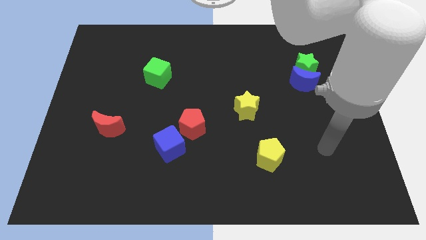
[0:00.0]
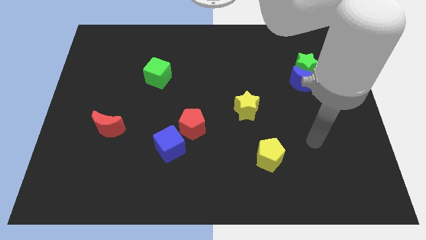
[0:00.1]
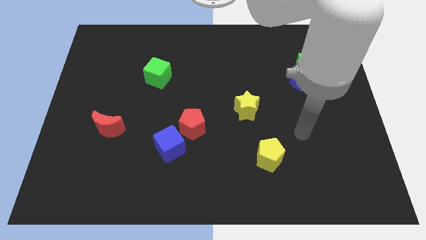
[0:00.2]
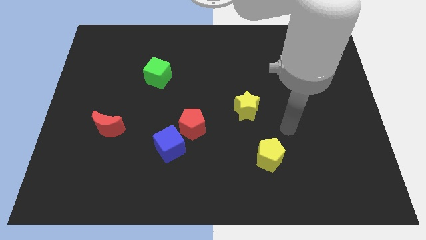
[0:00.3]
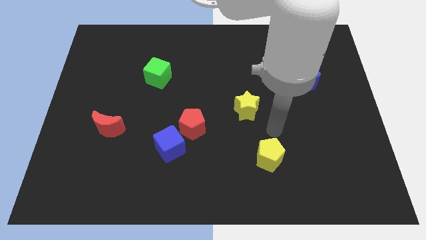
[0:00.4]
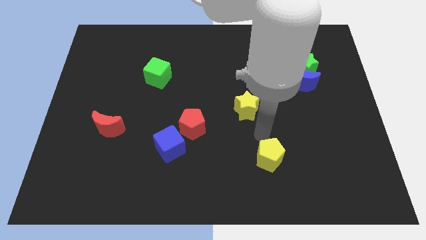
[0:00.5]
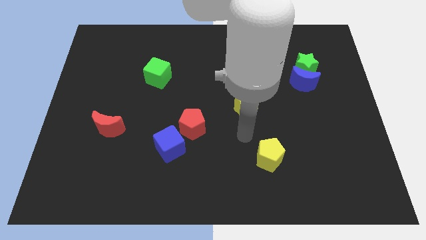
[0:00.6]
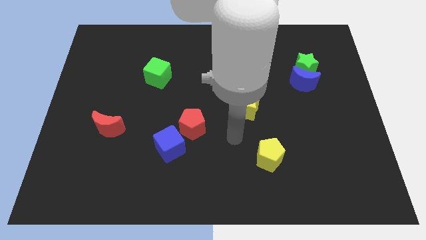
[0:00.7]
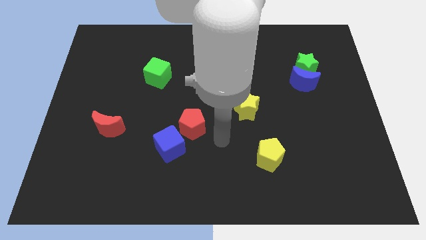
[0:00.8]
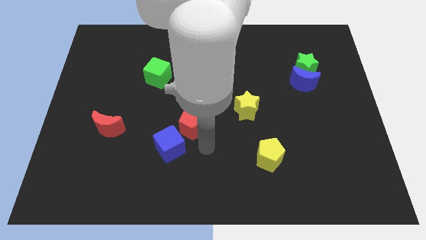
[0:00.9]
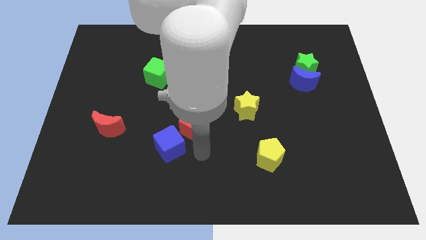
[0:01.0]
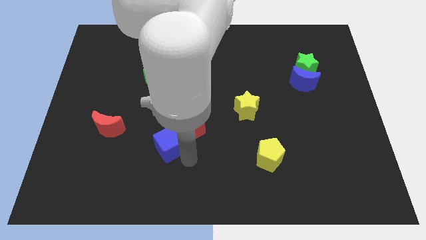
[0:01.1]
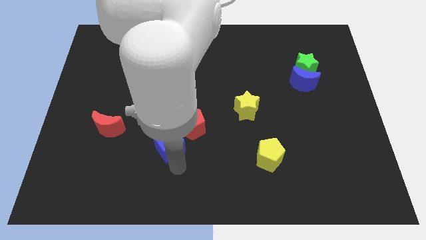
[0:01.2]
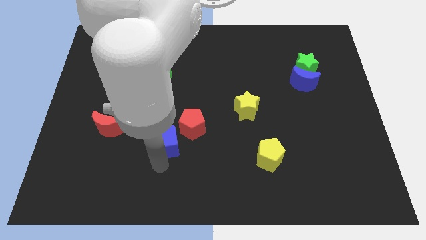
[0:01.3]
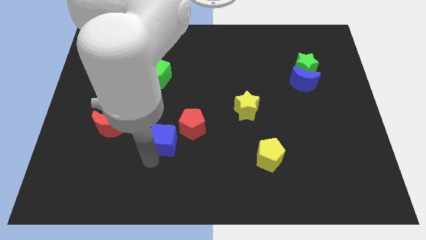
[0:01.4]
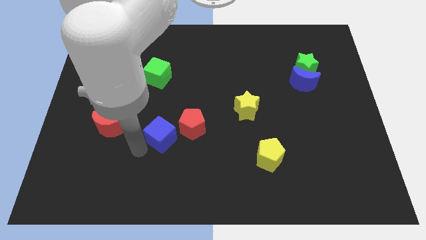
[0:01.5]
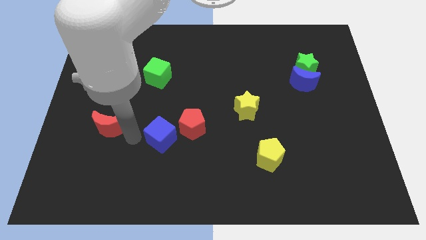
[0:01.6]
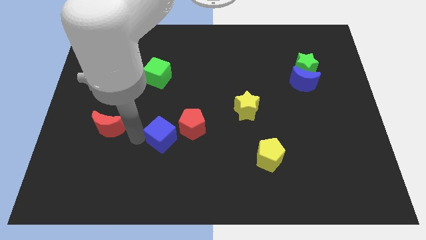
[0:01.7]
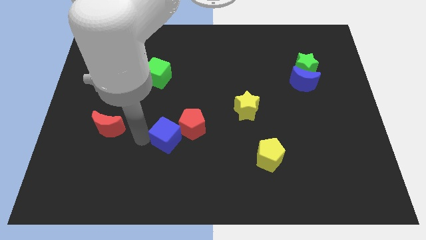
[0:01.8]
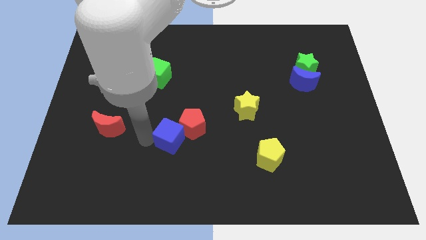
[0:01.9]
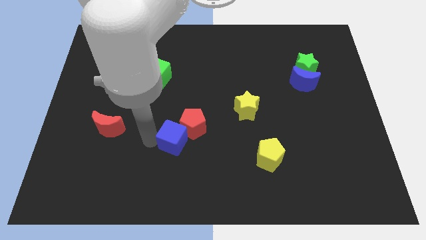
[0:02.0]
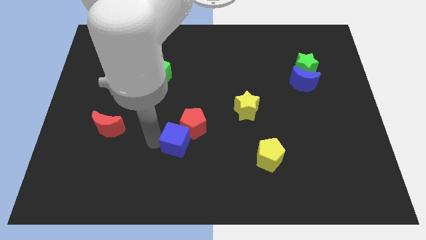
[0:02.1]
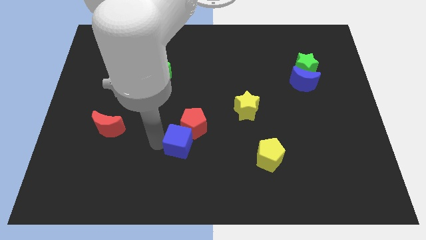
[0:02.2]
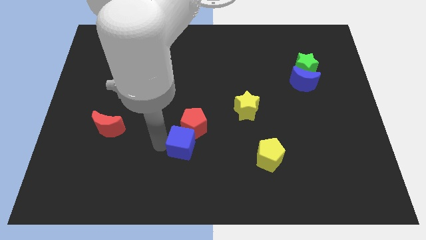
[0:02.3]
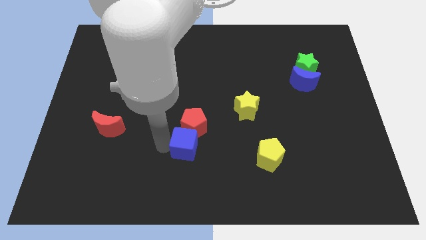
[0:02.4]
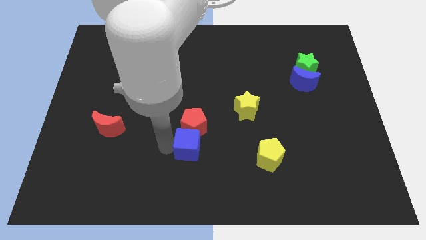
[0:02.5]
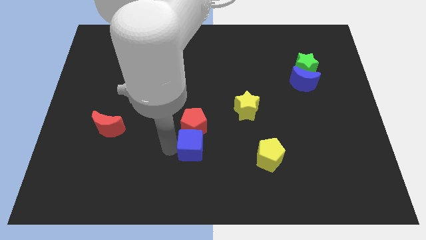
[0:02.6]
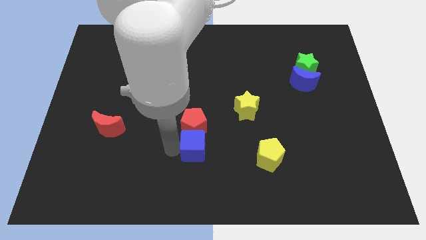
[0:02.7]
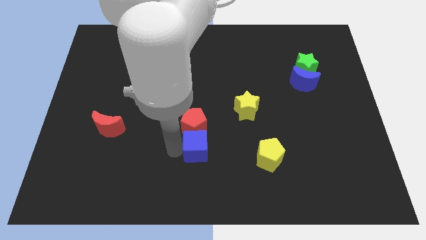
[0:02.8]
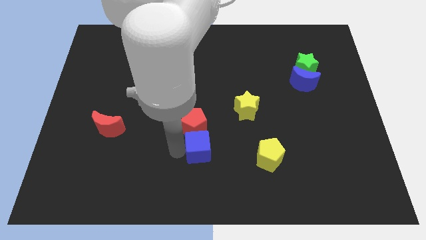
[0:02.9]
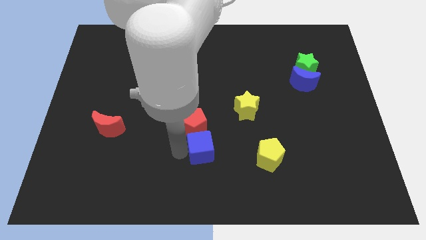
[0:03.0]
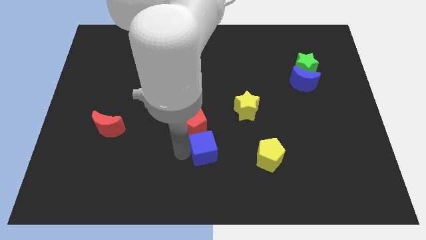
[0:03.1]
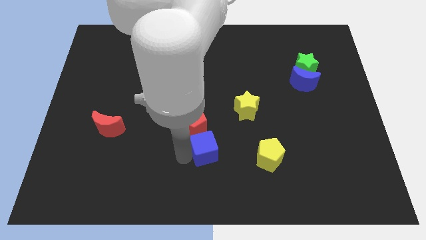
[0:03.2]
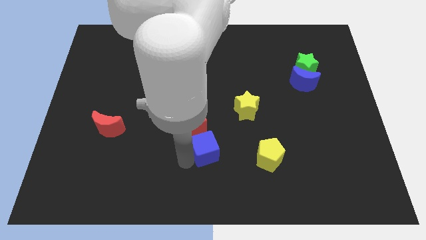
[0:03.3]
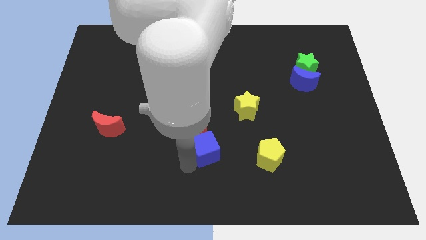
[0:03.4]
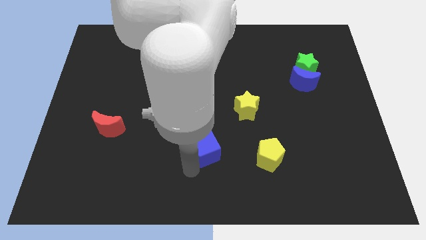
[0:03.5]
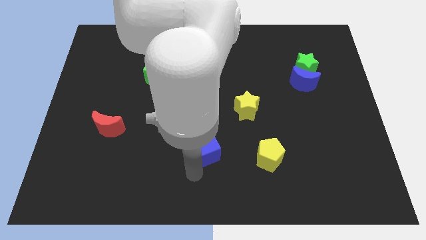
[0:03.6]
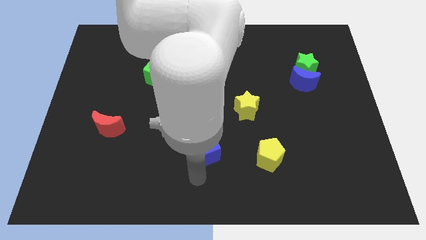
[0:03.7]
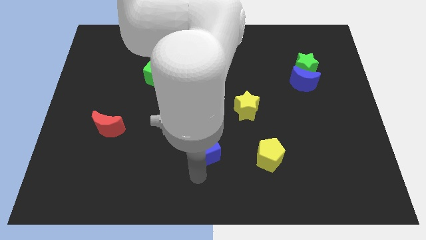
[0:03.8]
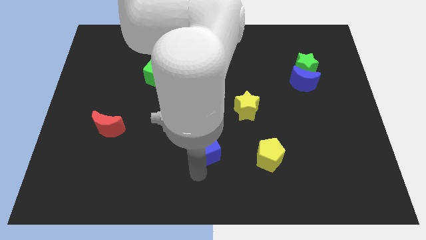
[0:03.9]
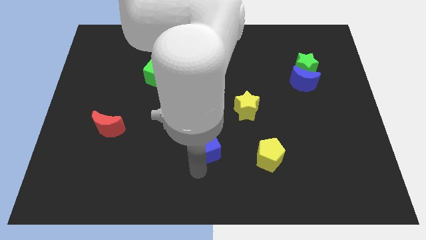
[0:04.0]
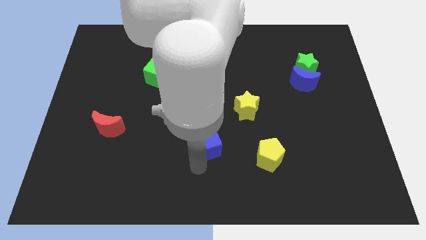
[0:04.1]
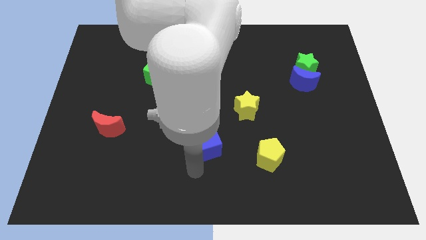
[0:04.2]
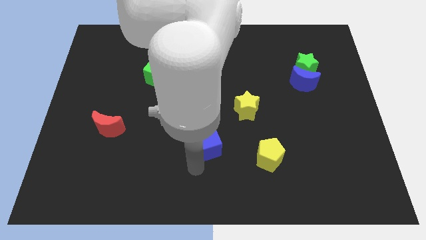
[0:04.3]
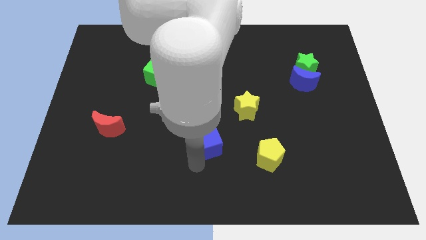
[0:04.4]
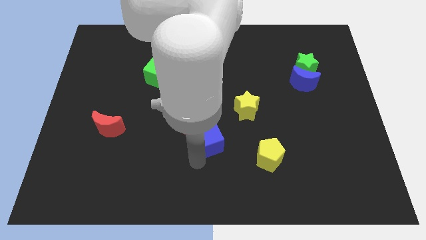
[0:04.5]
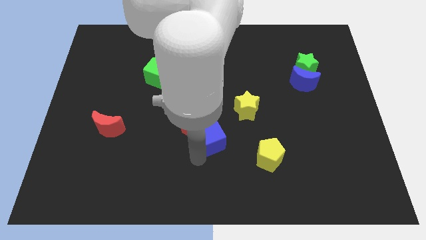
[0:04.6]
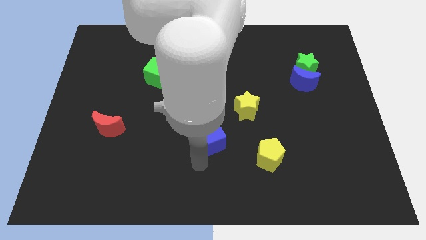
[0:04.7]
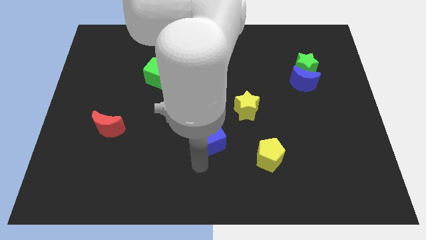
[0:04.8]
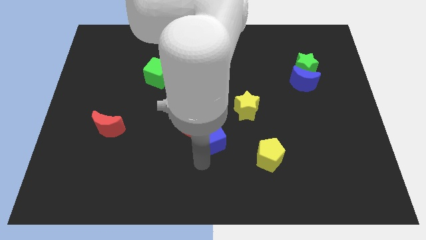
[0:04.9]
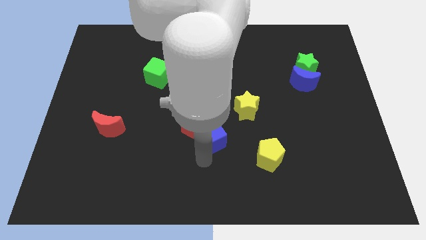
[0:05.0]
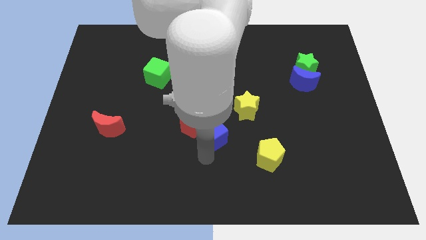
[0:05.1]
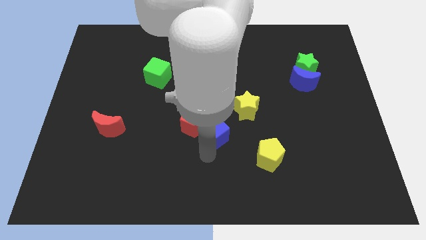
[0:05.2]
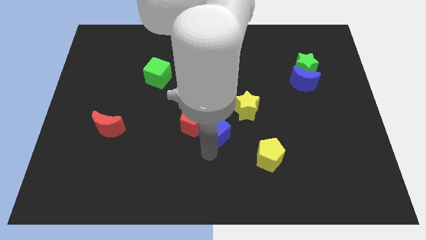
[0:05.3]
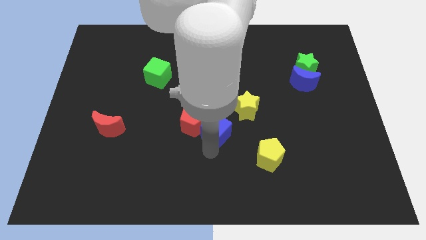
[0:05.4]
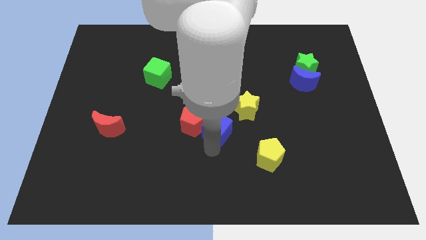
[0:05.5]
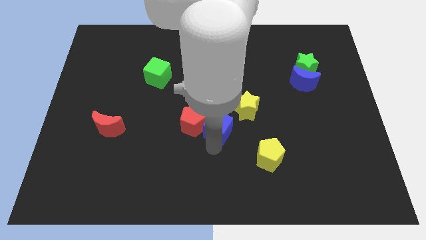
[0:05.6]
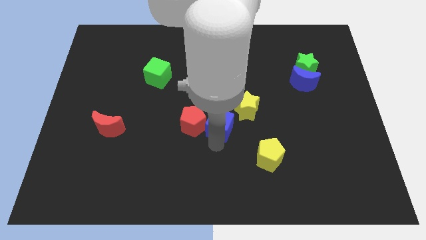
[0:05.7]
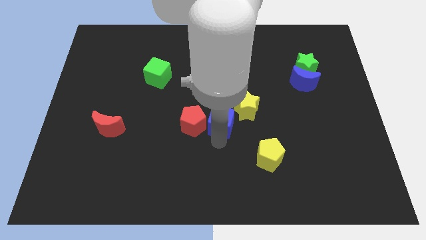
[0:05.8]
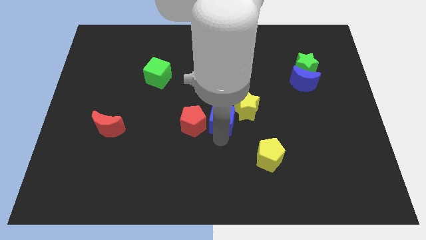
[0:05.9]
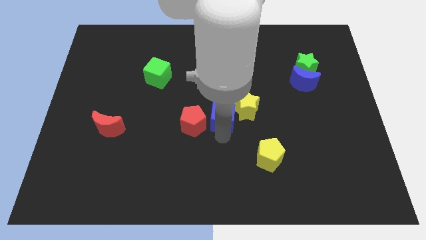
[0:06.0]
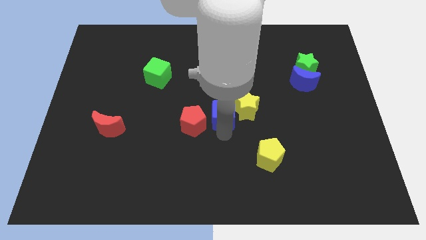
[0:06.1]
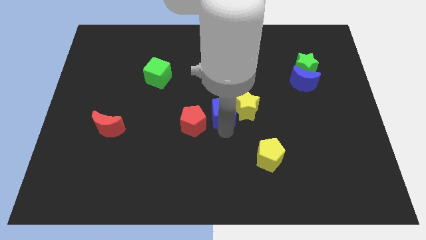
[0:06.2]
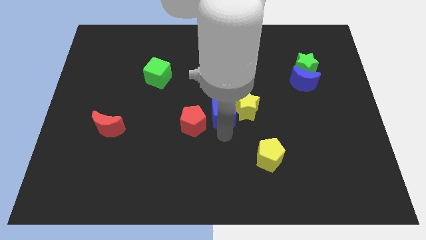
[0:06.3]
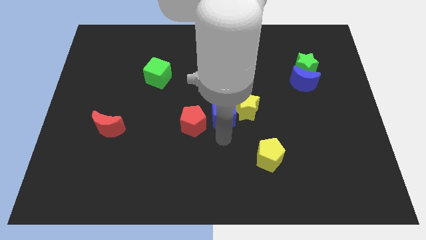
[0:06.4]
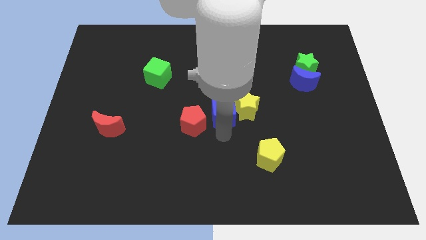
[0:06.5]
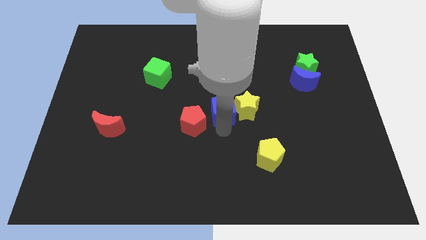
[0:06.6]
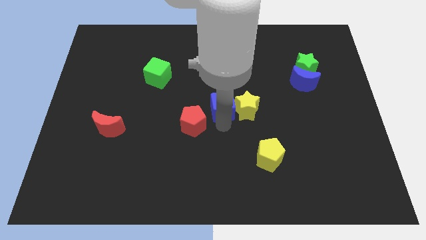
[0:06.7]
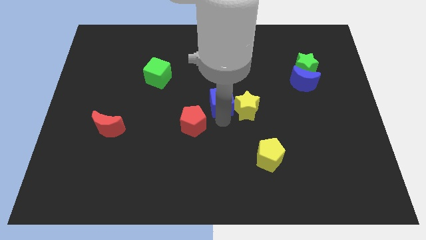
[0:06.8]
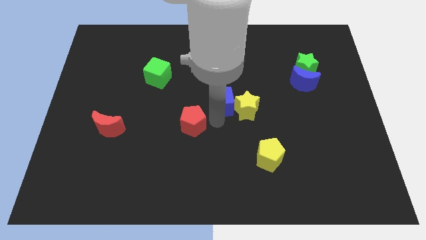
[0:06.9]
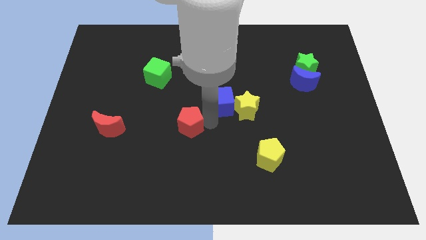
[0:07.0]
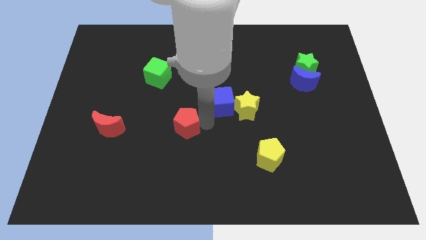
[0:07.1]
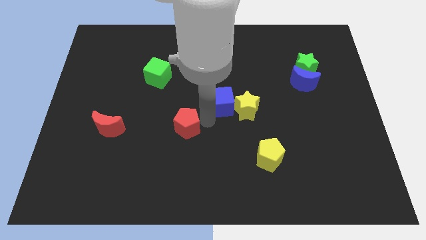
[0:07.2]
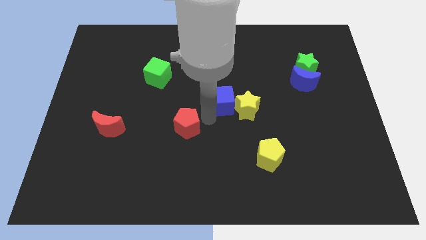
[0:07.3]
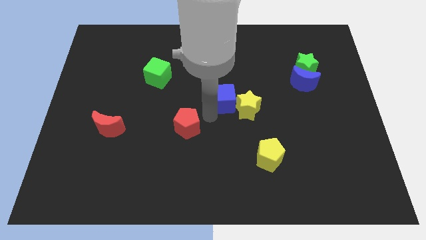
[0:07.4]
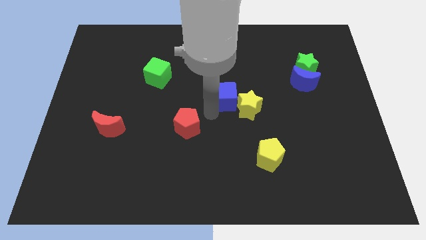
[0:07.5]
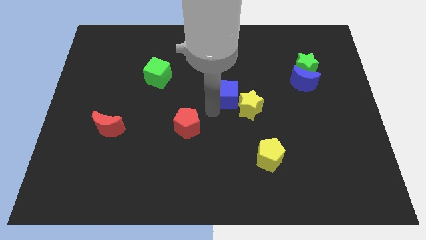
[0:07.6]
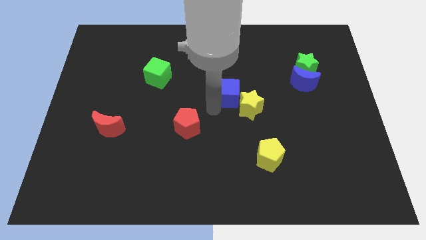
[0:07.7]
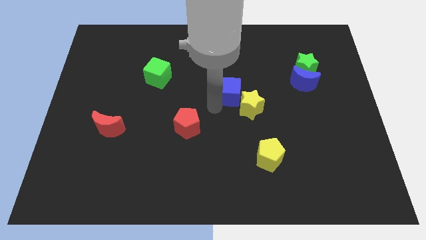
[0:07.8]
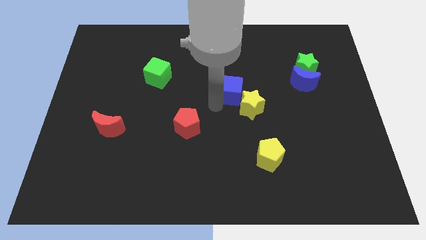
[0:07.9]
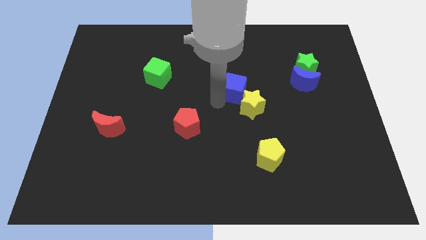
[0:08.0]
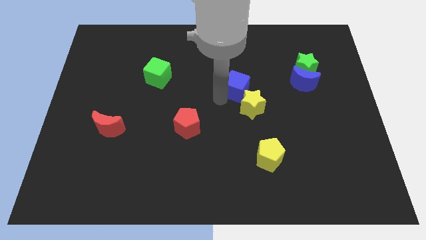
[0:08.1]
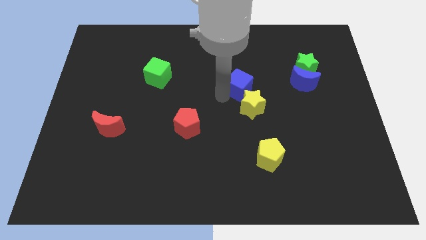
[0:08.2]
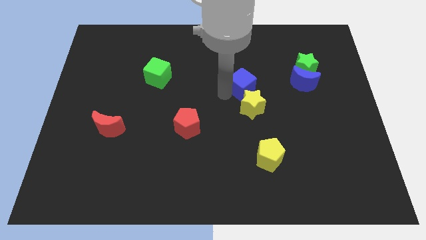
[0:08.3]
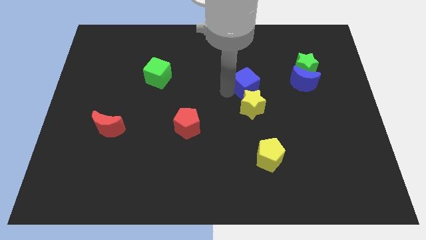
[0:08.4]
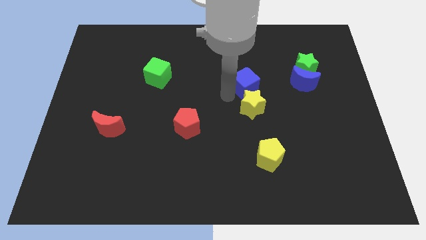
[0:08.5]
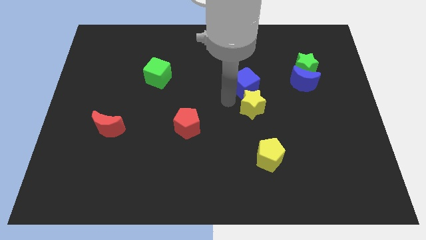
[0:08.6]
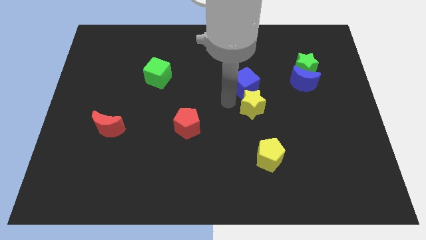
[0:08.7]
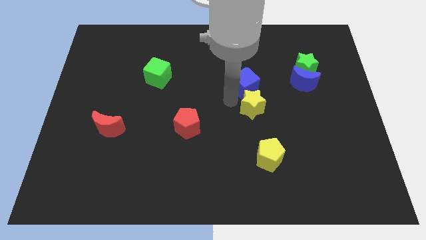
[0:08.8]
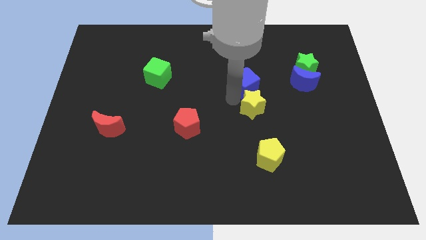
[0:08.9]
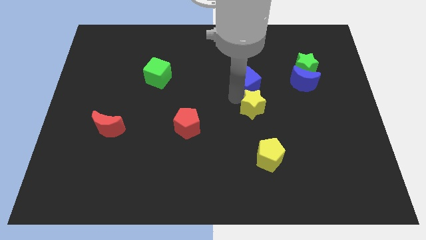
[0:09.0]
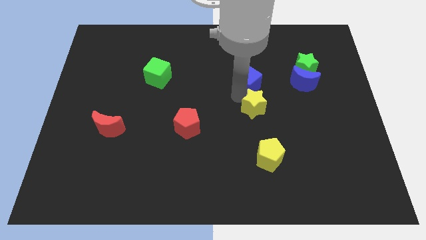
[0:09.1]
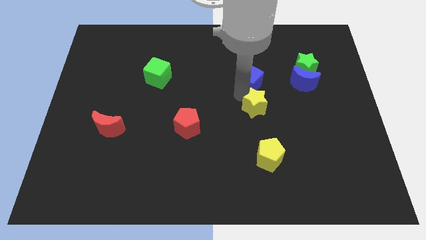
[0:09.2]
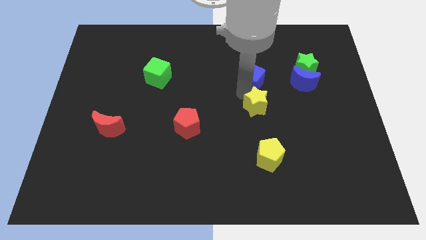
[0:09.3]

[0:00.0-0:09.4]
put the blue cube to the left side of the green star
